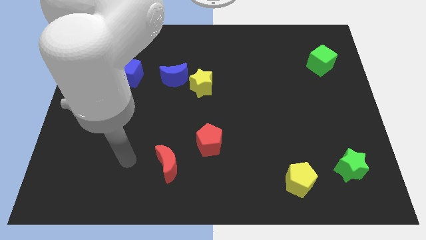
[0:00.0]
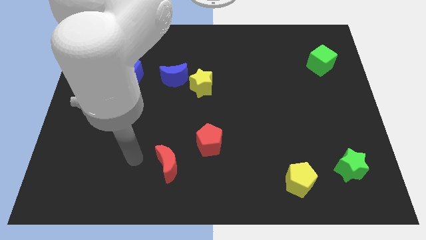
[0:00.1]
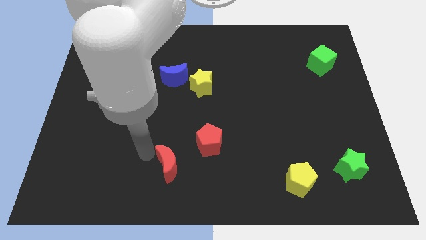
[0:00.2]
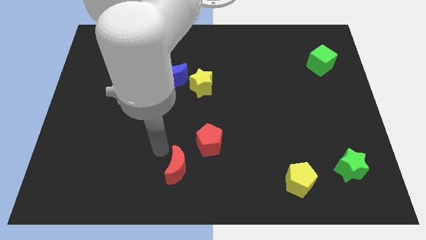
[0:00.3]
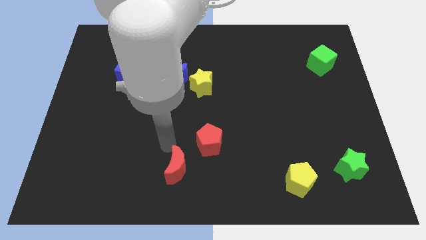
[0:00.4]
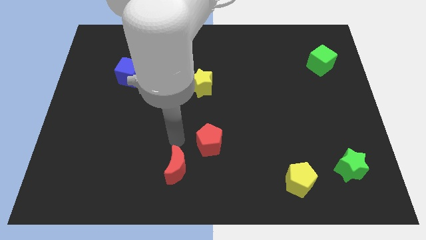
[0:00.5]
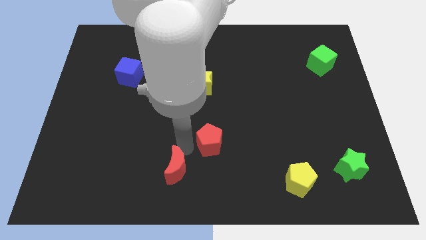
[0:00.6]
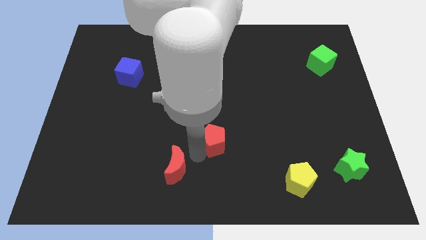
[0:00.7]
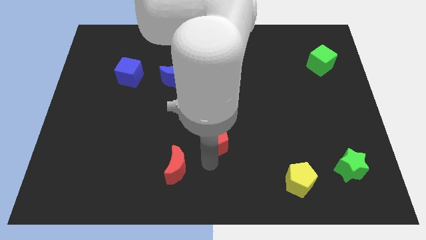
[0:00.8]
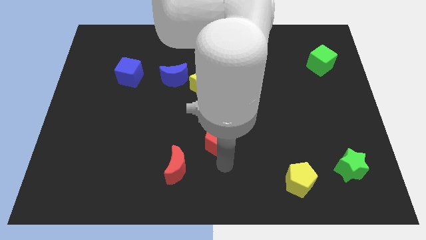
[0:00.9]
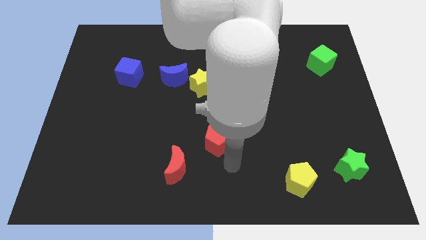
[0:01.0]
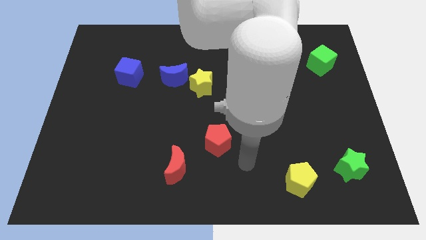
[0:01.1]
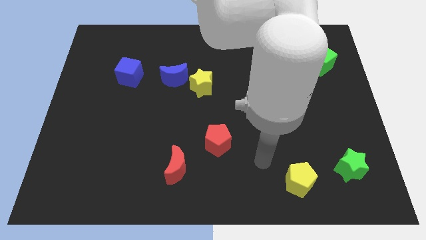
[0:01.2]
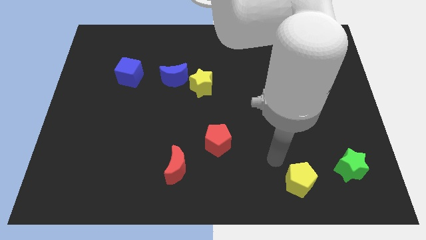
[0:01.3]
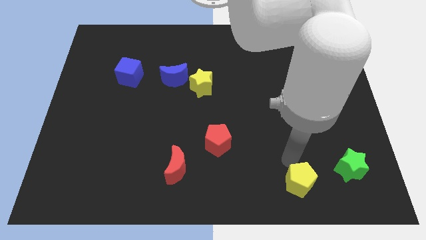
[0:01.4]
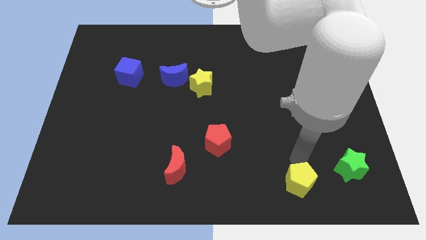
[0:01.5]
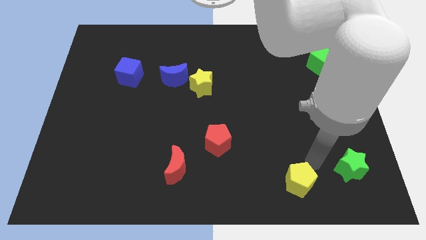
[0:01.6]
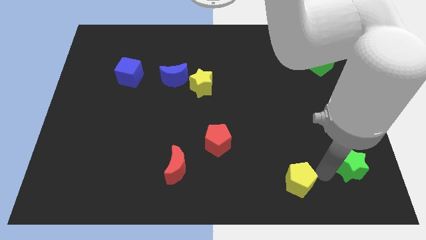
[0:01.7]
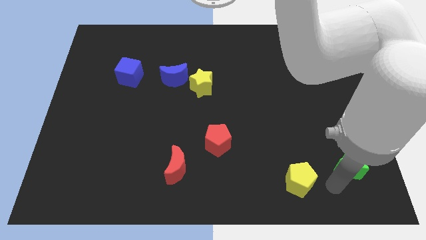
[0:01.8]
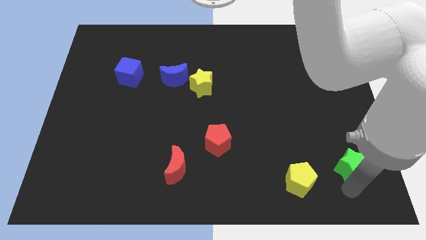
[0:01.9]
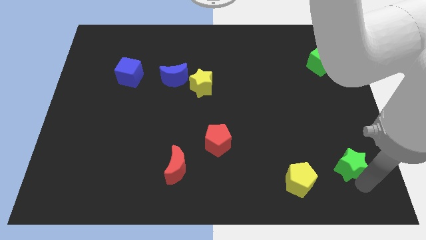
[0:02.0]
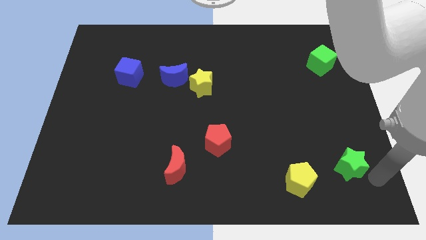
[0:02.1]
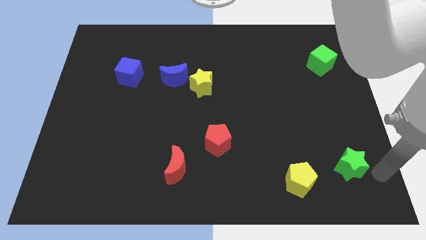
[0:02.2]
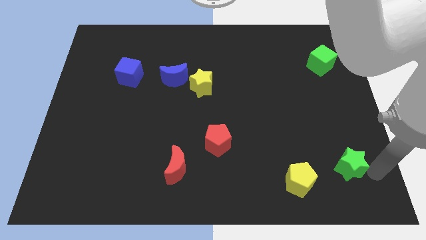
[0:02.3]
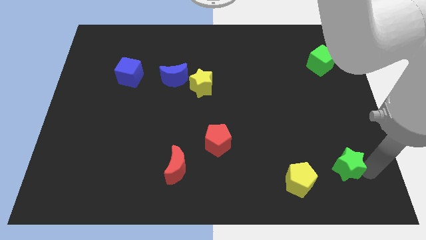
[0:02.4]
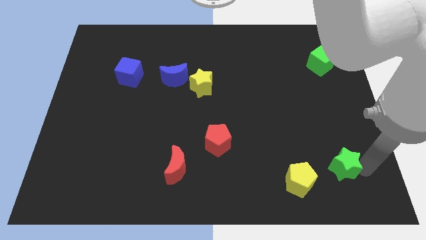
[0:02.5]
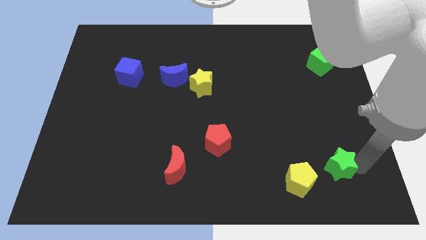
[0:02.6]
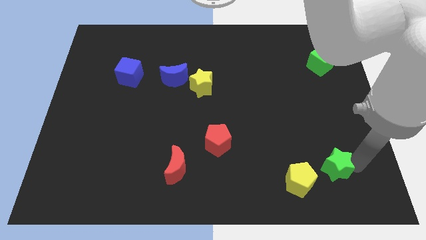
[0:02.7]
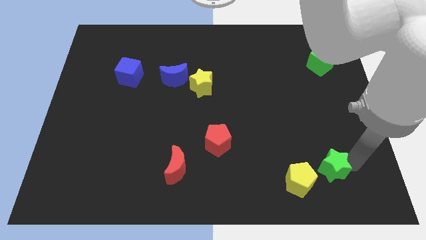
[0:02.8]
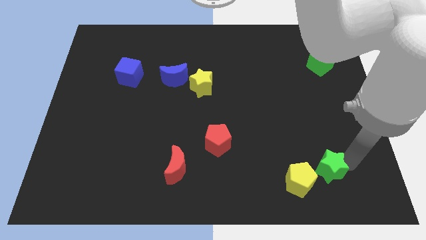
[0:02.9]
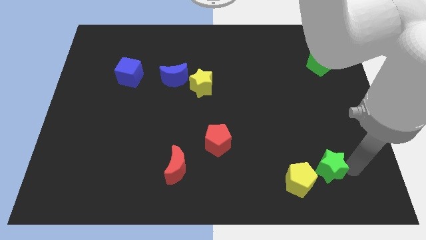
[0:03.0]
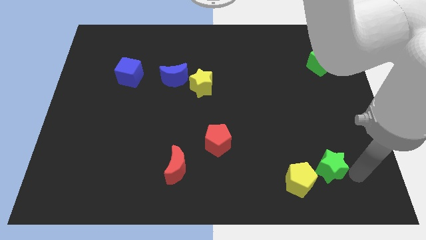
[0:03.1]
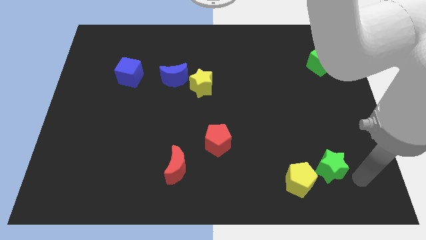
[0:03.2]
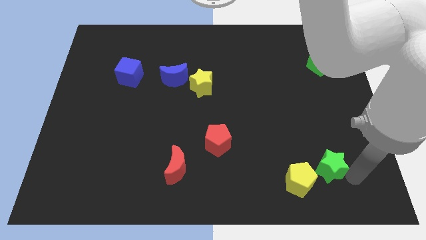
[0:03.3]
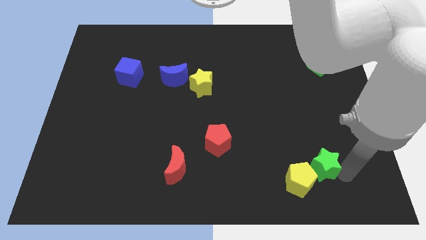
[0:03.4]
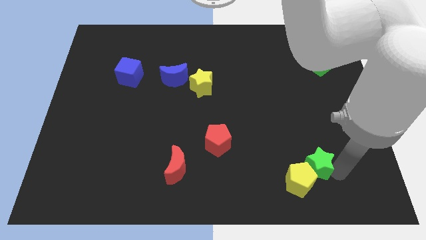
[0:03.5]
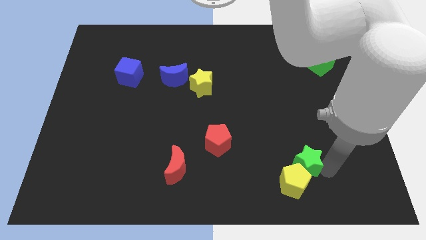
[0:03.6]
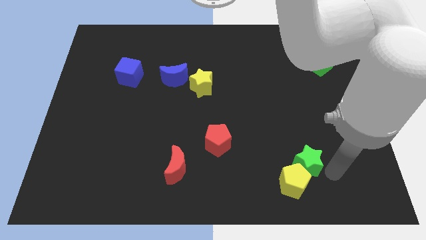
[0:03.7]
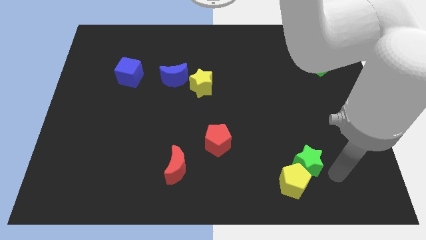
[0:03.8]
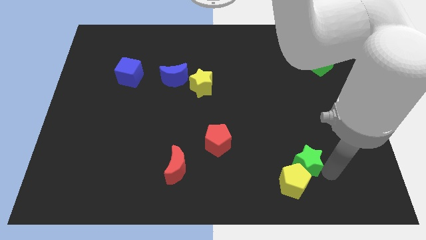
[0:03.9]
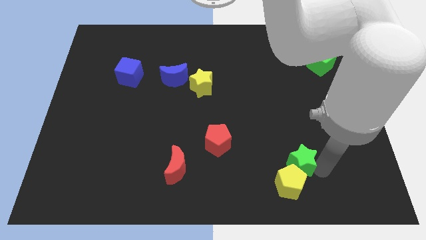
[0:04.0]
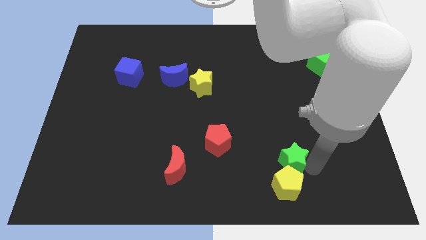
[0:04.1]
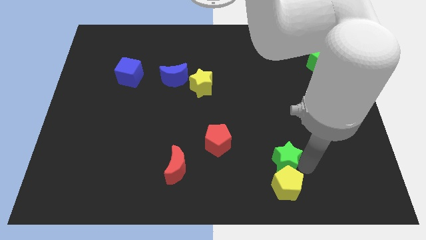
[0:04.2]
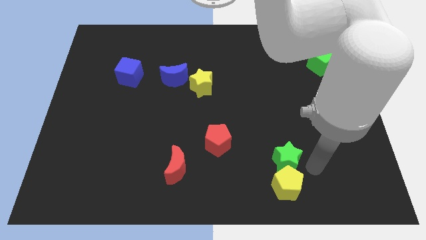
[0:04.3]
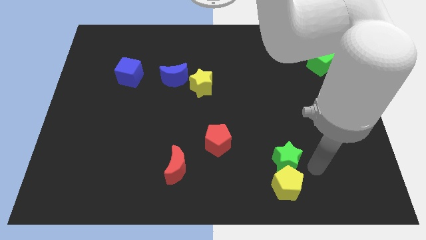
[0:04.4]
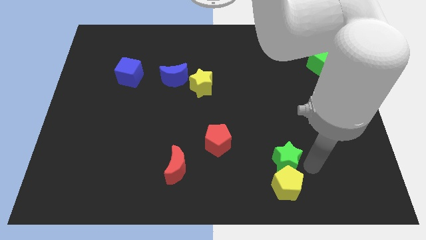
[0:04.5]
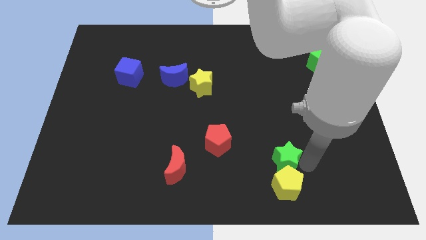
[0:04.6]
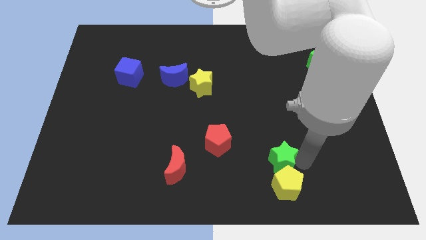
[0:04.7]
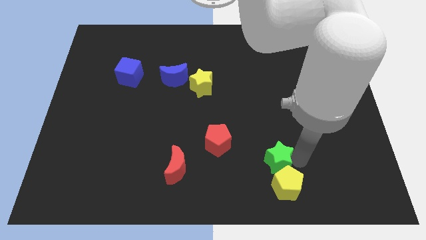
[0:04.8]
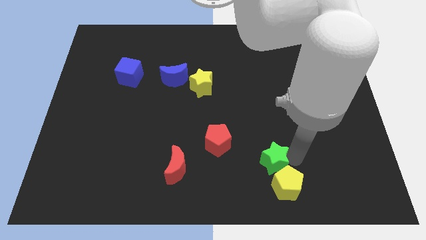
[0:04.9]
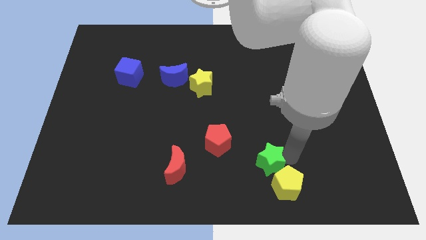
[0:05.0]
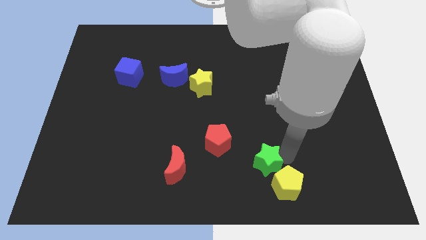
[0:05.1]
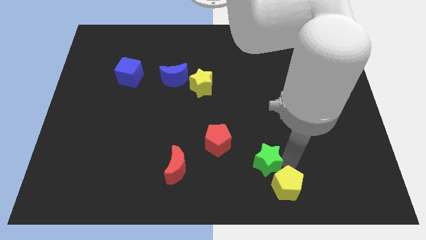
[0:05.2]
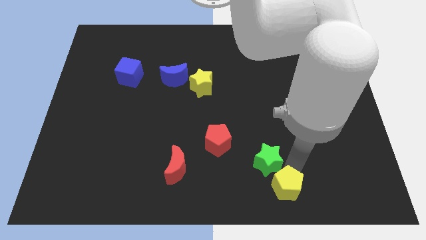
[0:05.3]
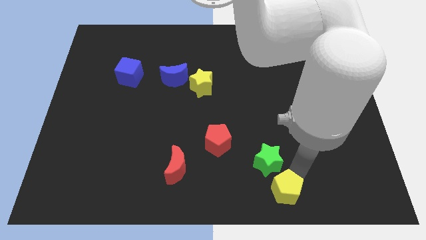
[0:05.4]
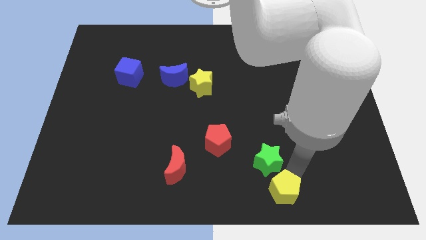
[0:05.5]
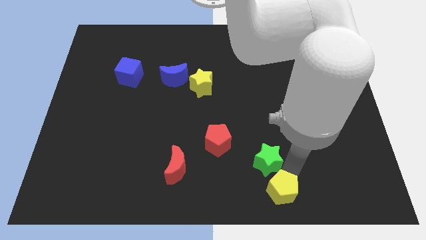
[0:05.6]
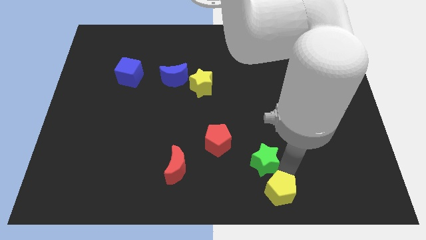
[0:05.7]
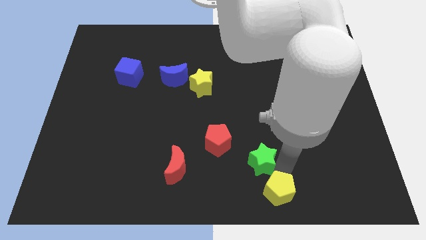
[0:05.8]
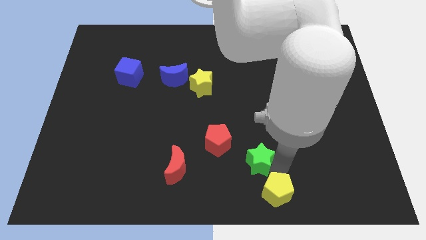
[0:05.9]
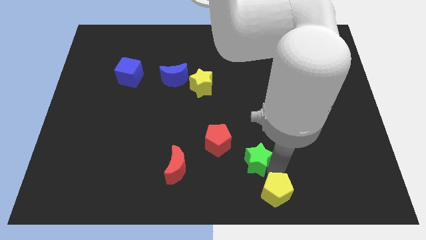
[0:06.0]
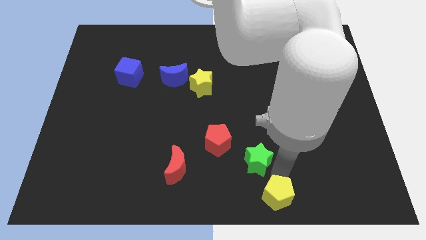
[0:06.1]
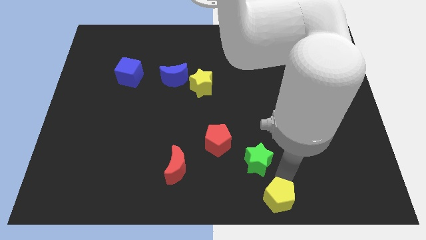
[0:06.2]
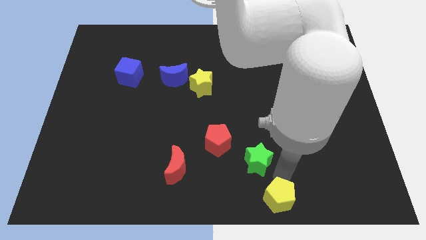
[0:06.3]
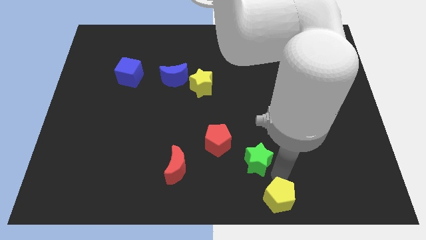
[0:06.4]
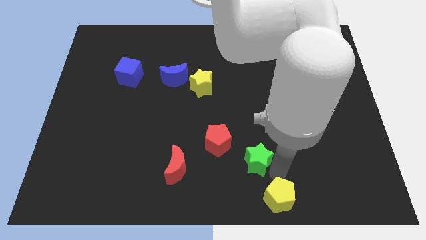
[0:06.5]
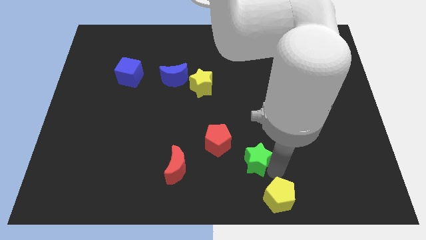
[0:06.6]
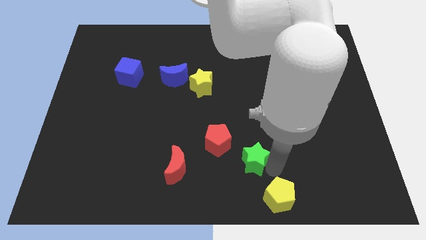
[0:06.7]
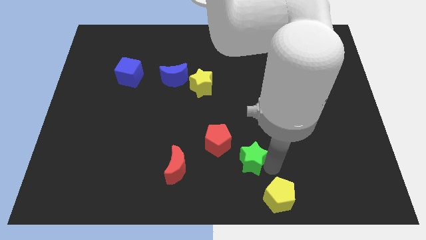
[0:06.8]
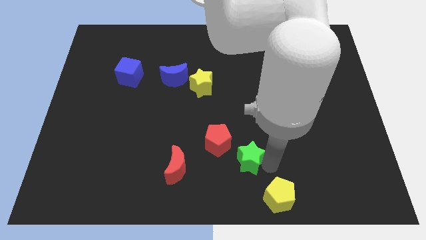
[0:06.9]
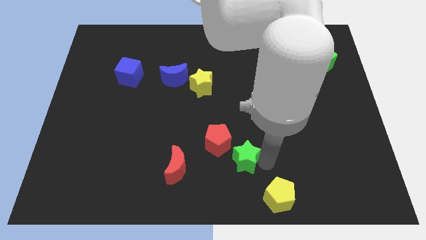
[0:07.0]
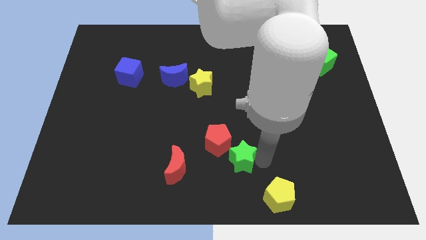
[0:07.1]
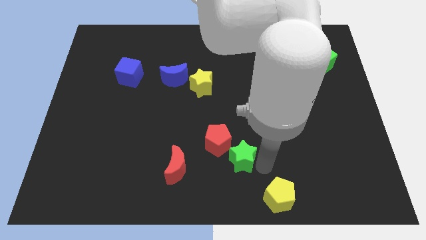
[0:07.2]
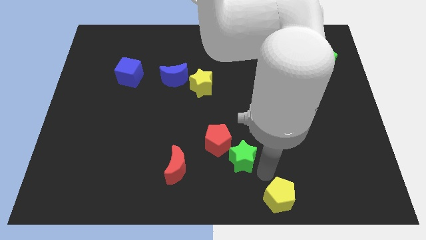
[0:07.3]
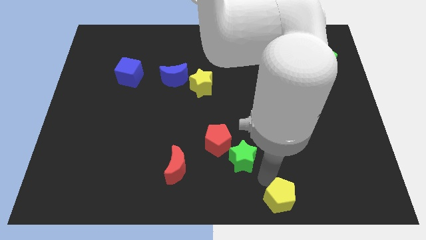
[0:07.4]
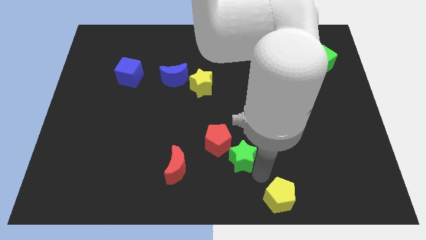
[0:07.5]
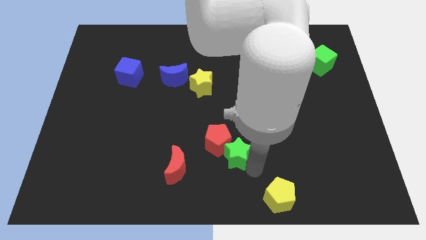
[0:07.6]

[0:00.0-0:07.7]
move the green star next to the red pentagon

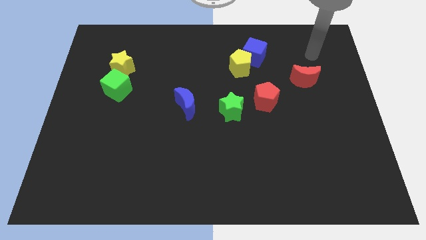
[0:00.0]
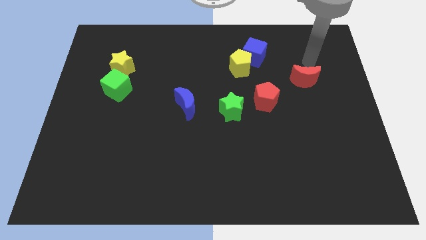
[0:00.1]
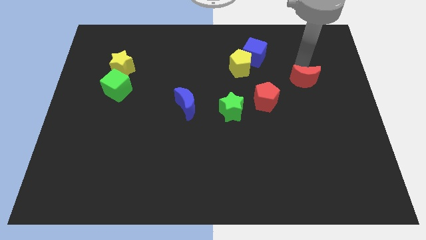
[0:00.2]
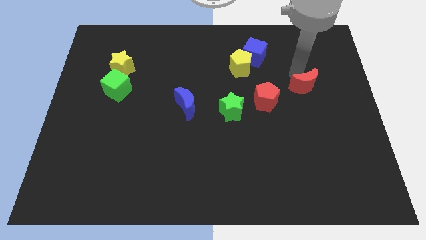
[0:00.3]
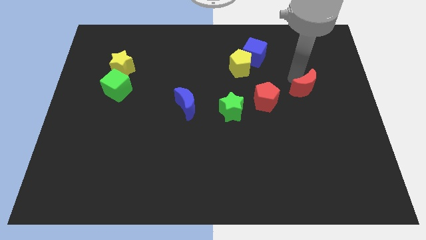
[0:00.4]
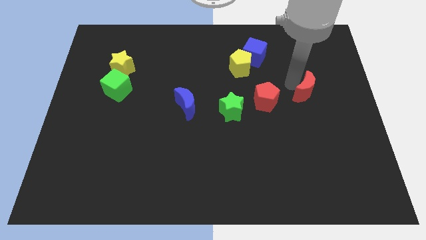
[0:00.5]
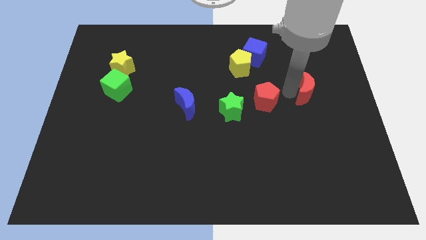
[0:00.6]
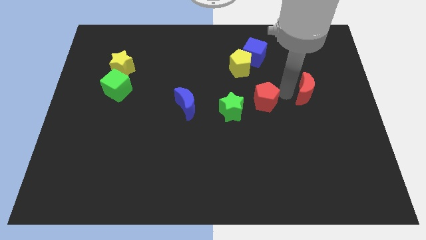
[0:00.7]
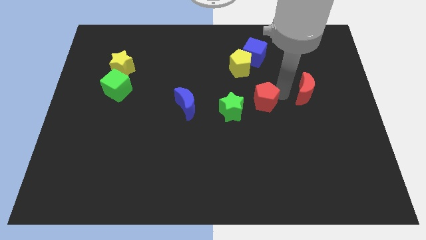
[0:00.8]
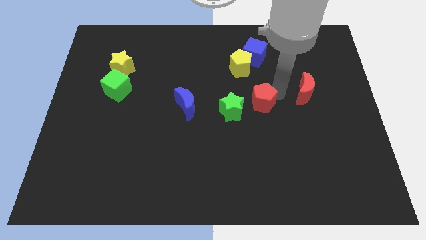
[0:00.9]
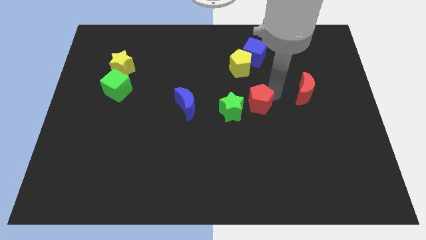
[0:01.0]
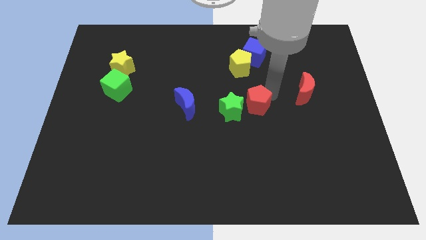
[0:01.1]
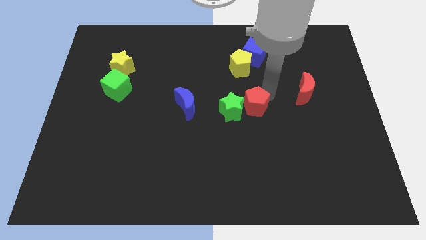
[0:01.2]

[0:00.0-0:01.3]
slide the red pentagon towards the green star
